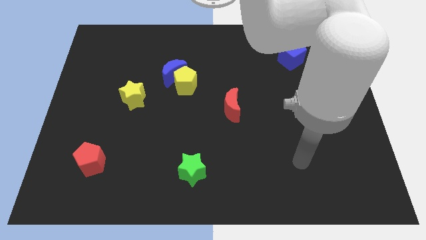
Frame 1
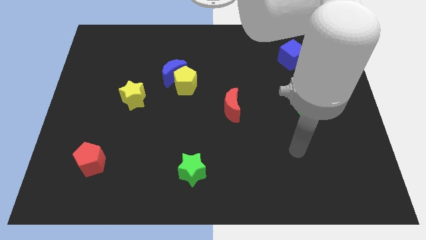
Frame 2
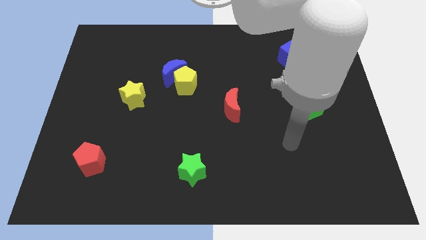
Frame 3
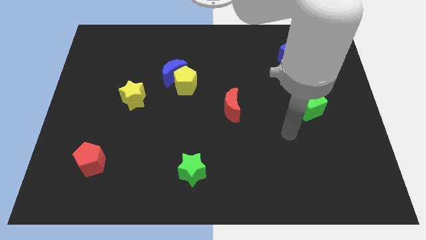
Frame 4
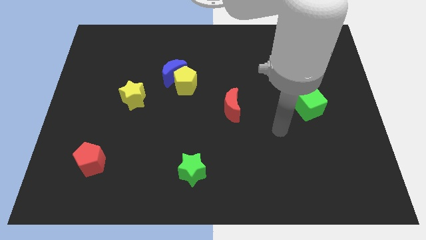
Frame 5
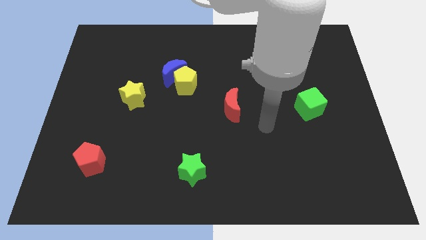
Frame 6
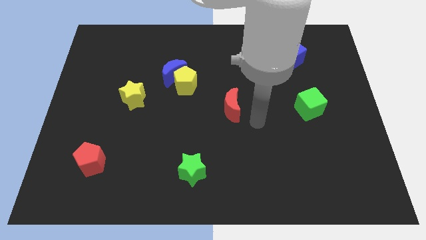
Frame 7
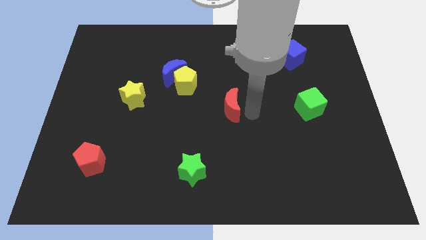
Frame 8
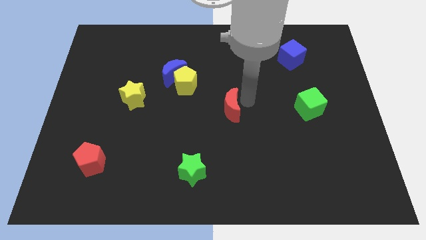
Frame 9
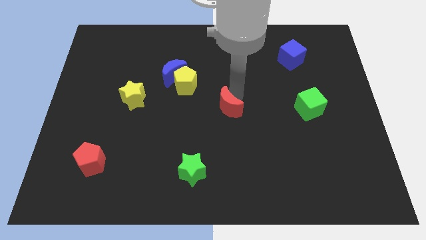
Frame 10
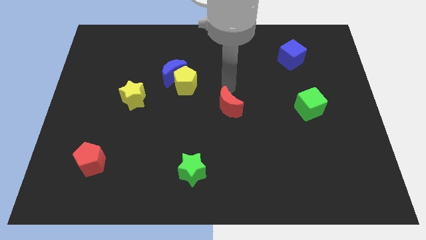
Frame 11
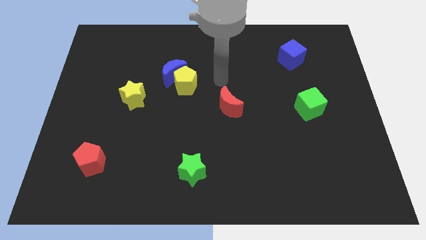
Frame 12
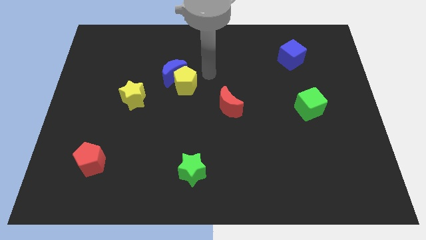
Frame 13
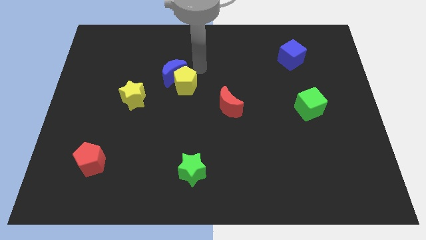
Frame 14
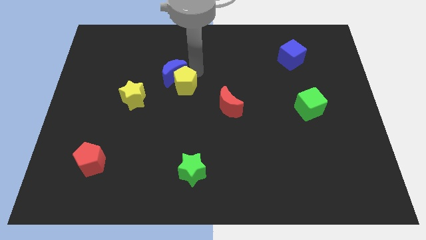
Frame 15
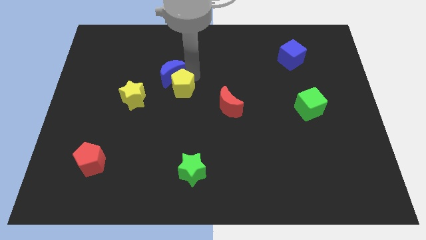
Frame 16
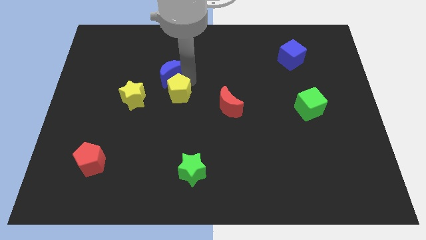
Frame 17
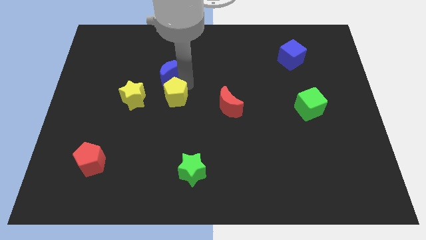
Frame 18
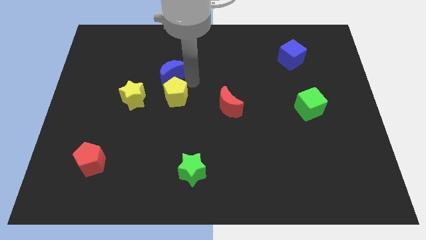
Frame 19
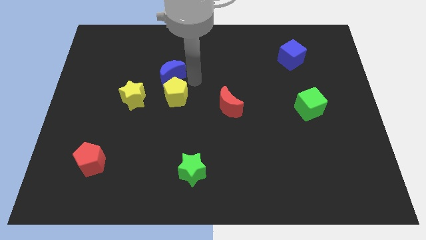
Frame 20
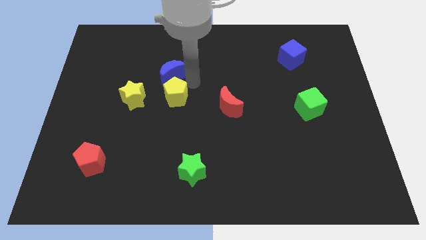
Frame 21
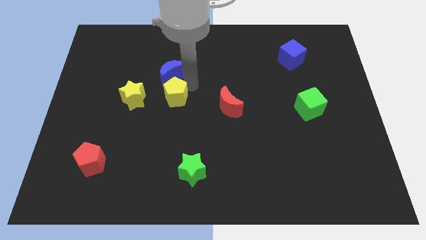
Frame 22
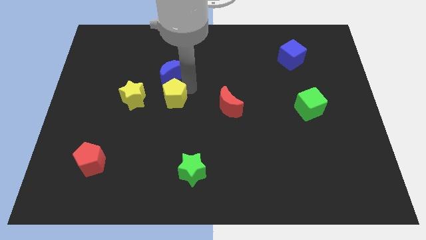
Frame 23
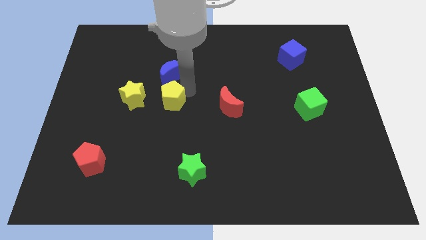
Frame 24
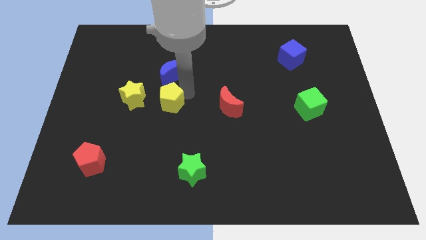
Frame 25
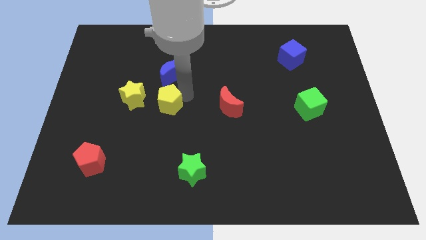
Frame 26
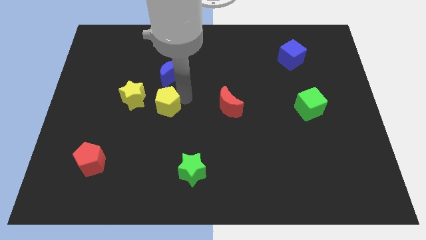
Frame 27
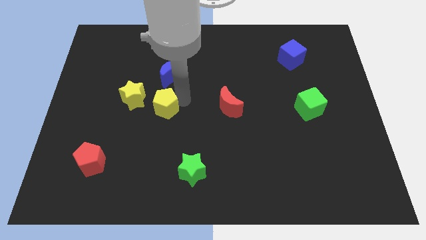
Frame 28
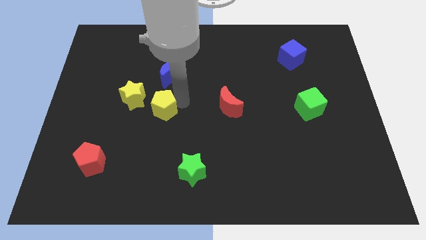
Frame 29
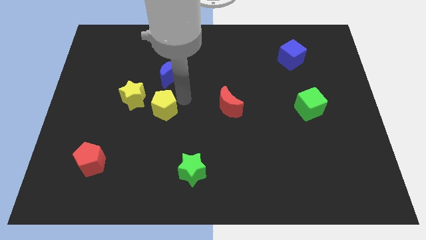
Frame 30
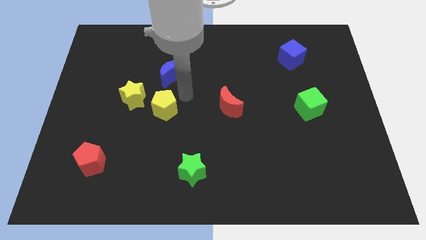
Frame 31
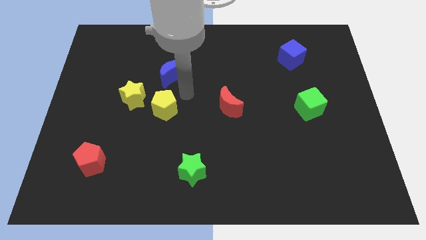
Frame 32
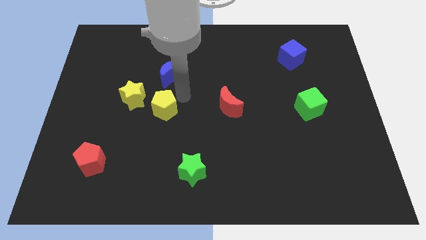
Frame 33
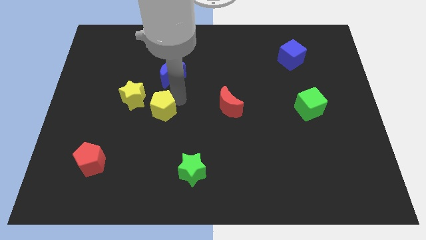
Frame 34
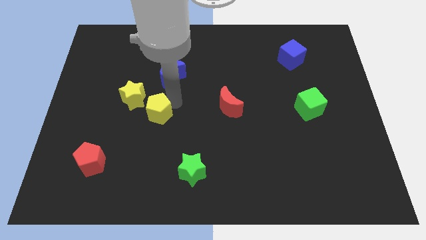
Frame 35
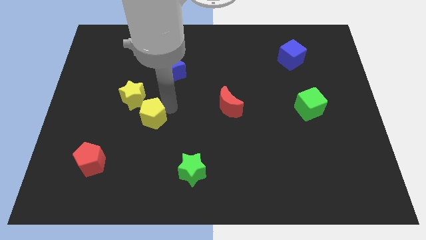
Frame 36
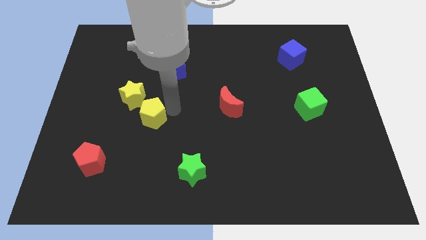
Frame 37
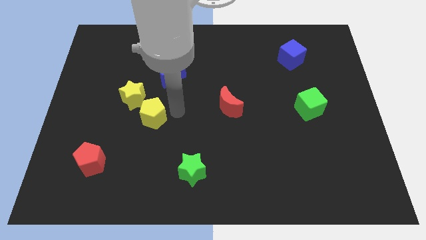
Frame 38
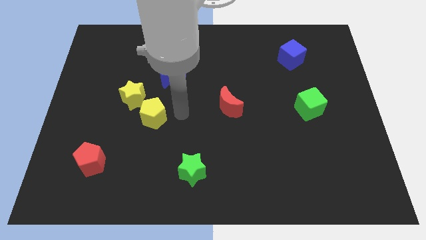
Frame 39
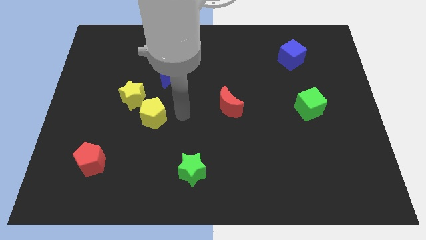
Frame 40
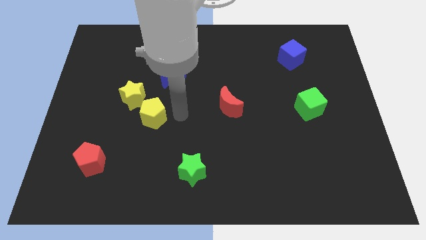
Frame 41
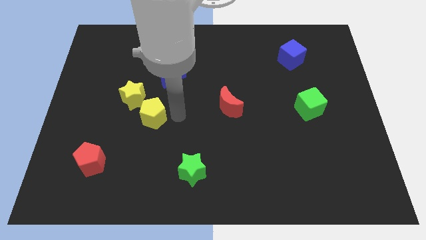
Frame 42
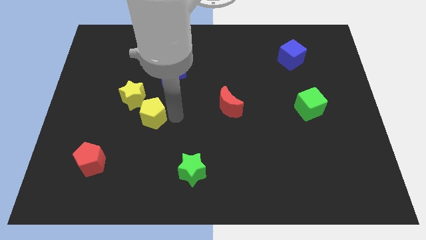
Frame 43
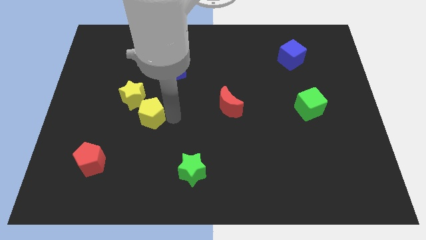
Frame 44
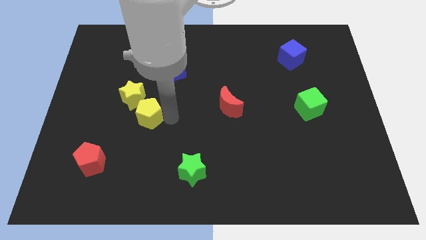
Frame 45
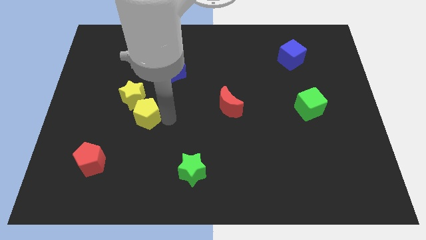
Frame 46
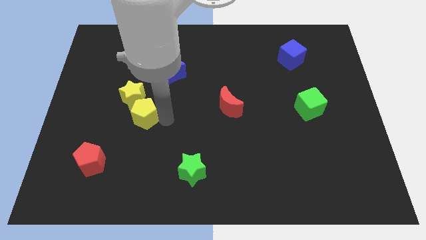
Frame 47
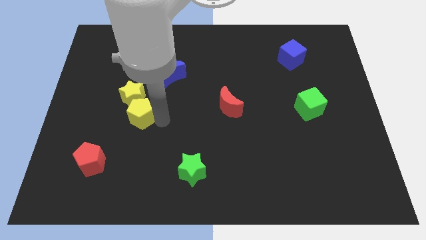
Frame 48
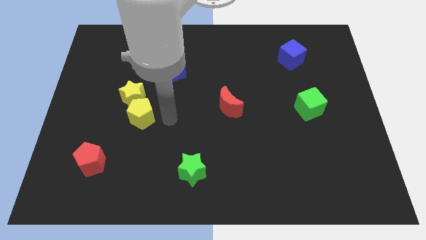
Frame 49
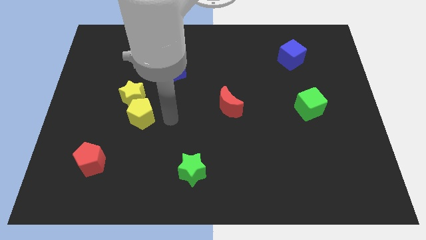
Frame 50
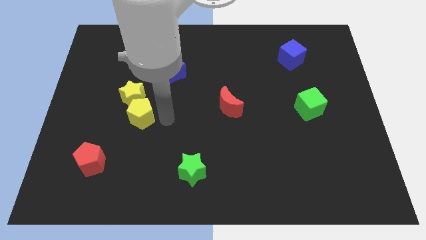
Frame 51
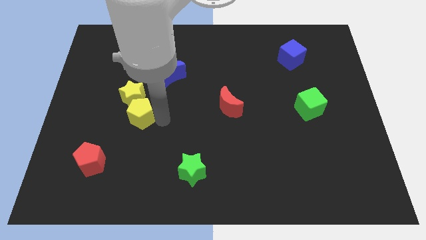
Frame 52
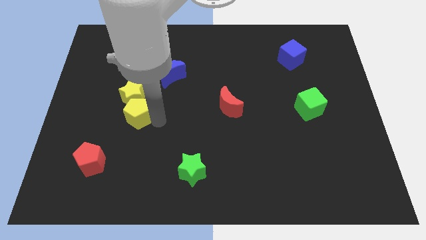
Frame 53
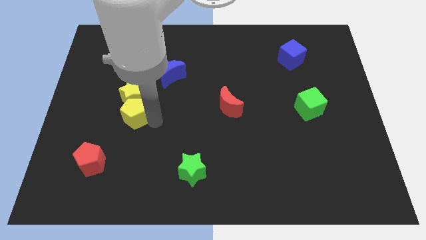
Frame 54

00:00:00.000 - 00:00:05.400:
put the yellow pentagon diagonally down and to the left of the yellow star

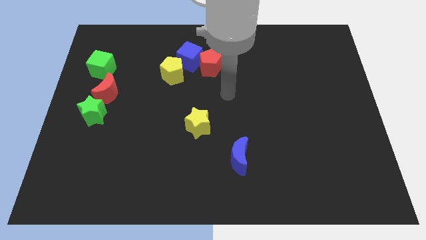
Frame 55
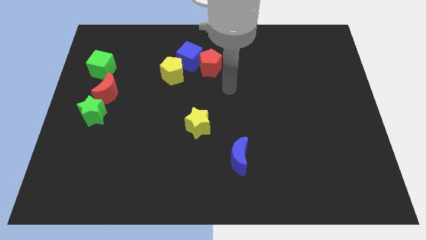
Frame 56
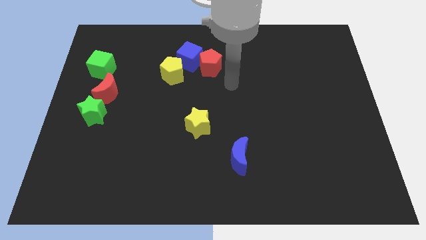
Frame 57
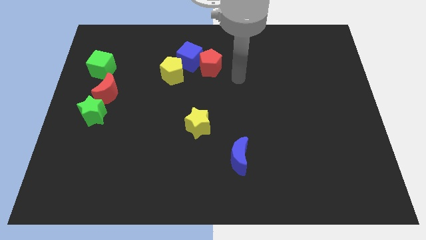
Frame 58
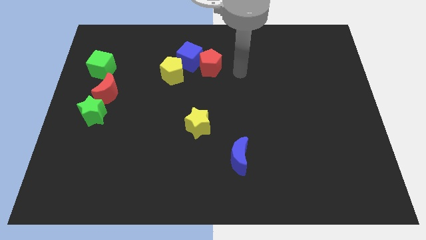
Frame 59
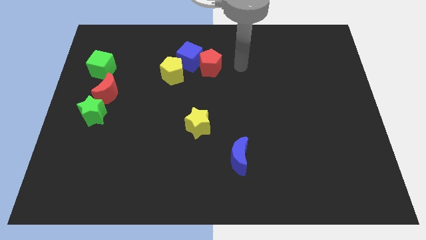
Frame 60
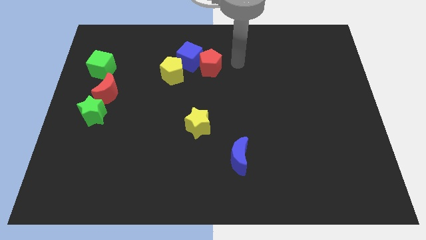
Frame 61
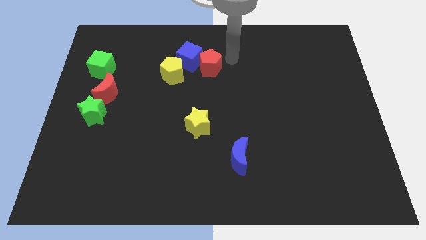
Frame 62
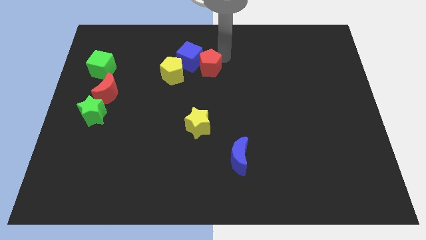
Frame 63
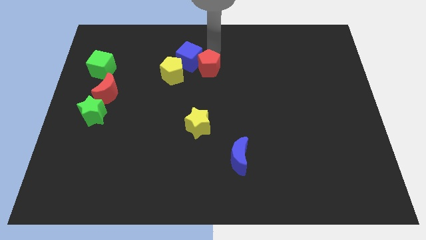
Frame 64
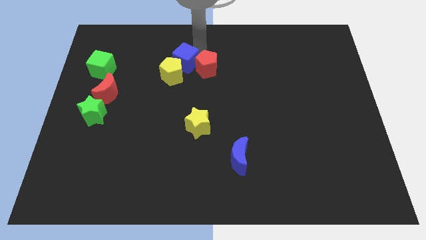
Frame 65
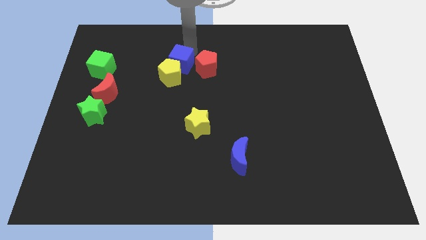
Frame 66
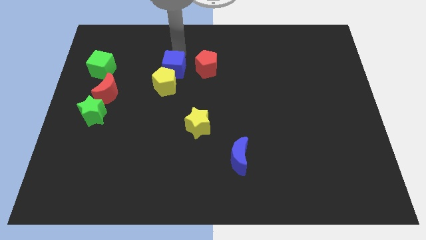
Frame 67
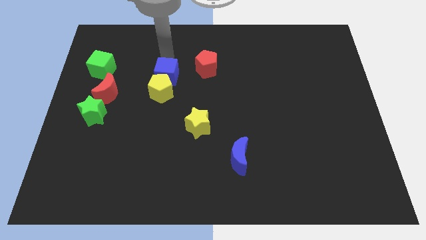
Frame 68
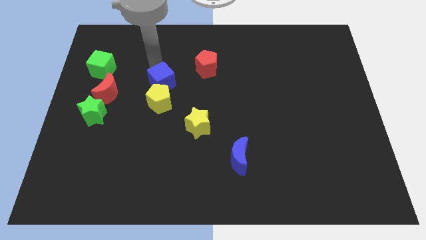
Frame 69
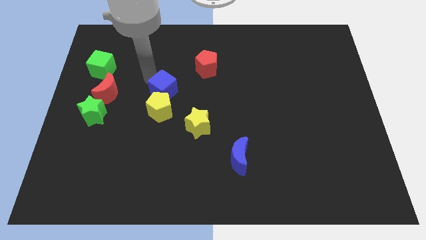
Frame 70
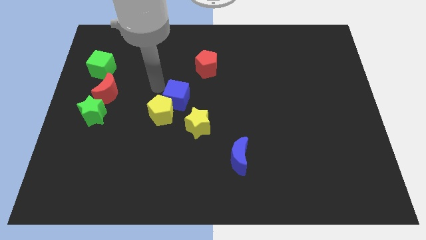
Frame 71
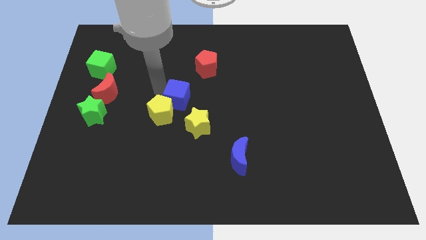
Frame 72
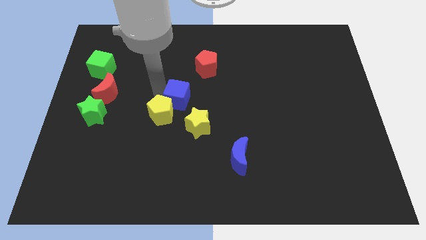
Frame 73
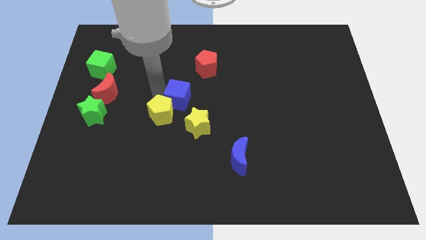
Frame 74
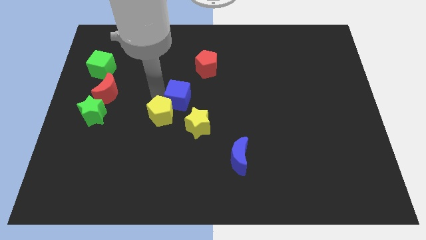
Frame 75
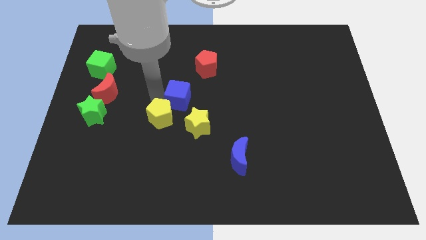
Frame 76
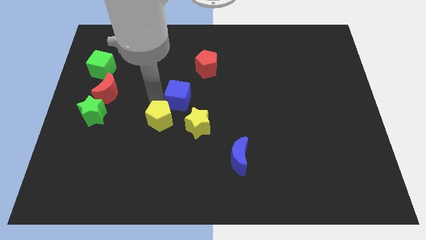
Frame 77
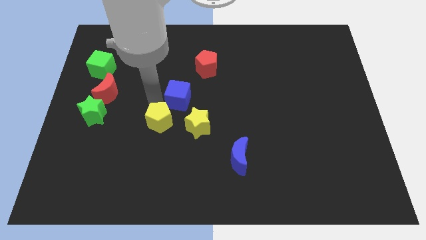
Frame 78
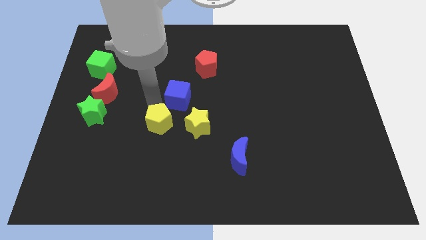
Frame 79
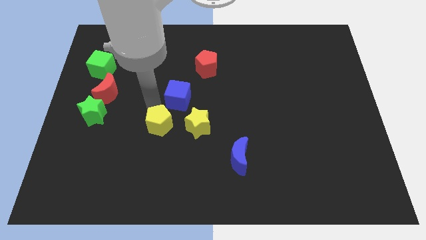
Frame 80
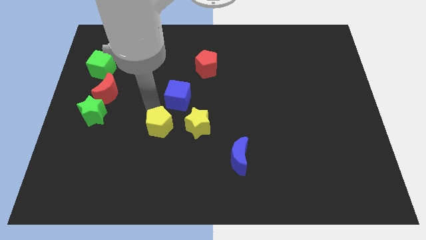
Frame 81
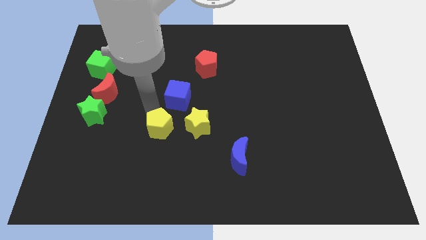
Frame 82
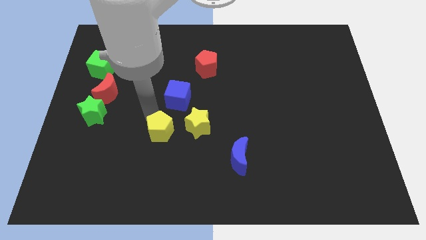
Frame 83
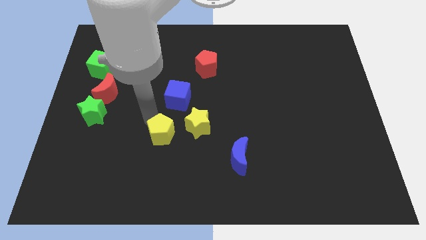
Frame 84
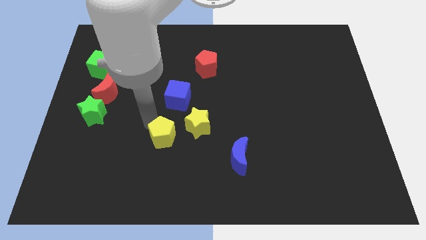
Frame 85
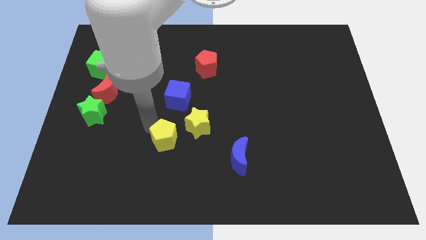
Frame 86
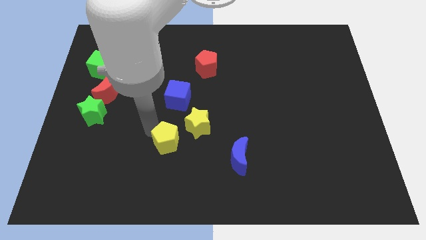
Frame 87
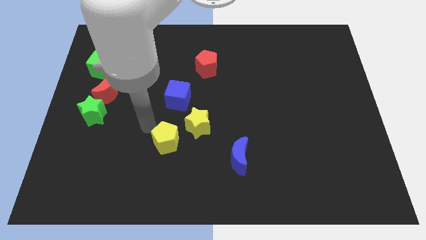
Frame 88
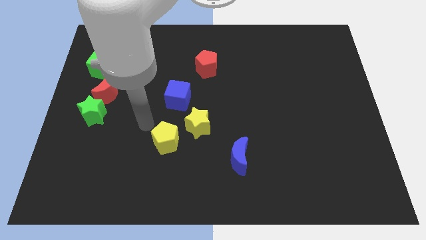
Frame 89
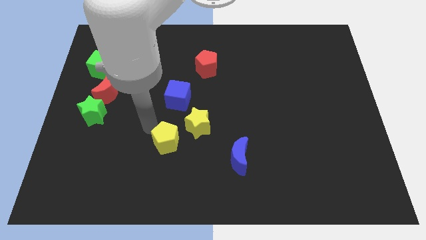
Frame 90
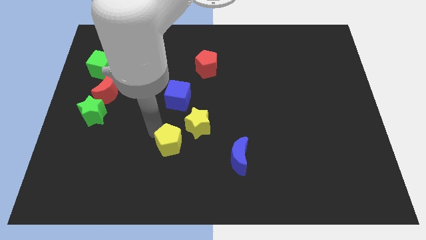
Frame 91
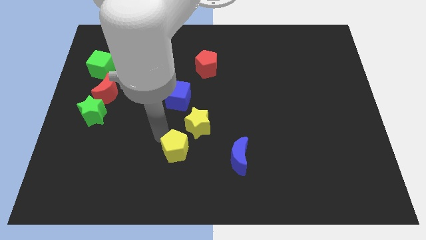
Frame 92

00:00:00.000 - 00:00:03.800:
put the yellow pentagon left of the blue moon
